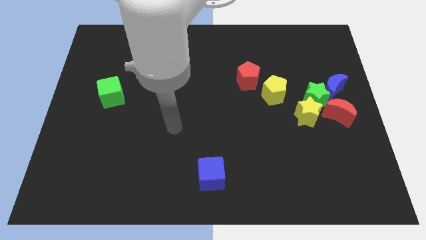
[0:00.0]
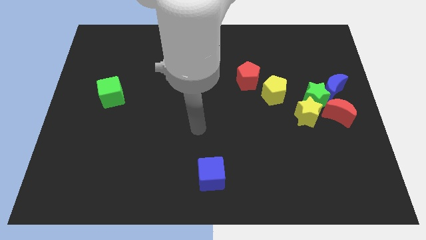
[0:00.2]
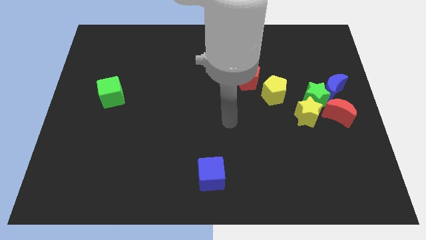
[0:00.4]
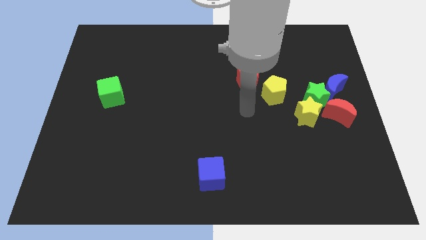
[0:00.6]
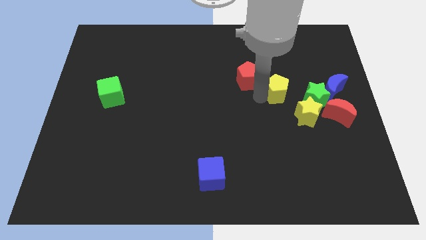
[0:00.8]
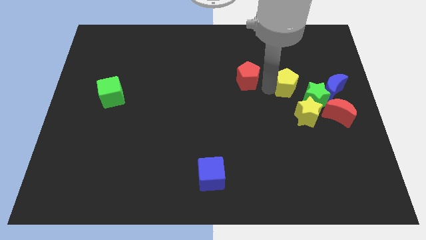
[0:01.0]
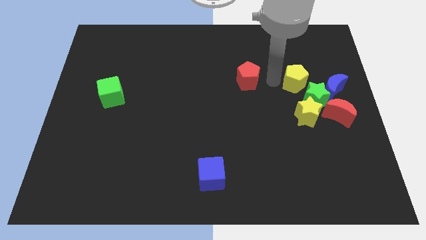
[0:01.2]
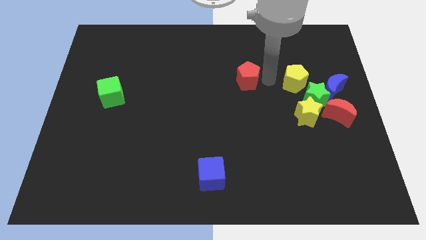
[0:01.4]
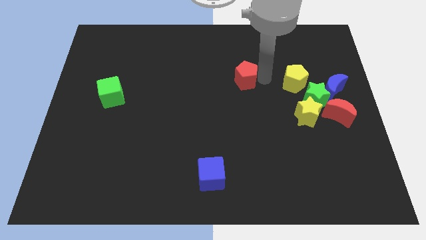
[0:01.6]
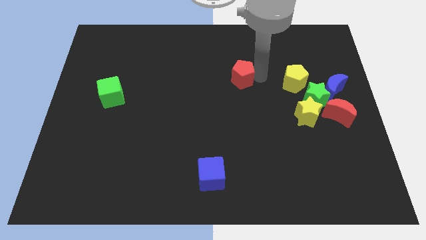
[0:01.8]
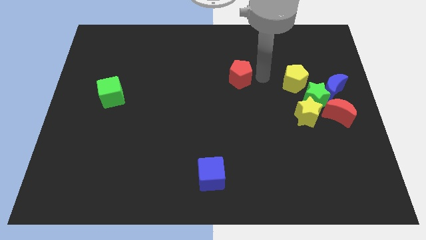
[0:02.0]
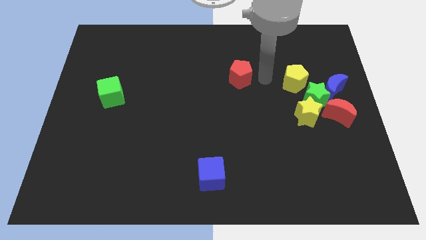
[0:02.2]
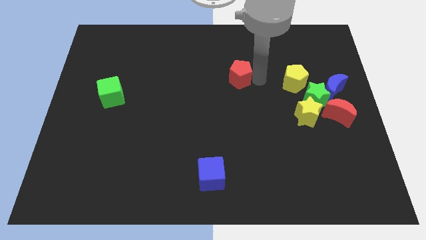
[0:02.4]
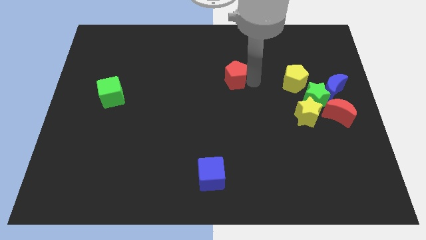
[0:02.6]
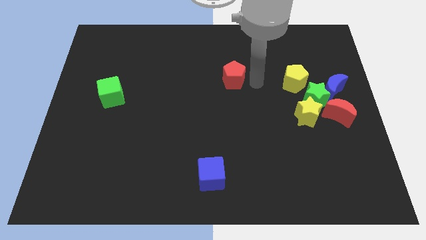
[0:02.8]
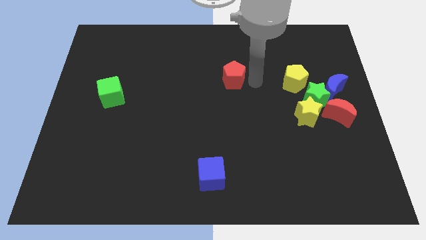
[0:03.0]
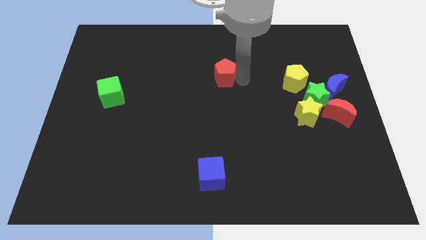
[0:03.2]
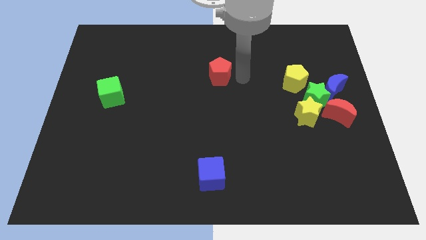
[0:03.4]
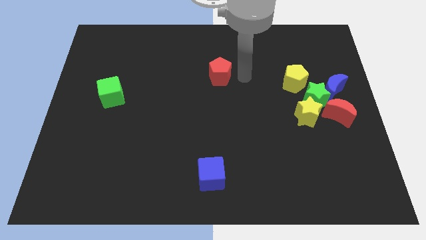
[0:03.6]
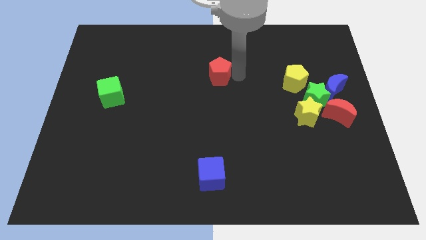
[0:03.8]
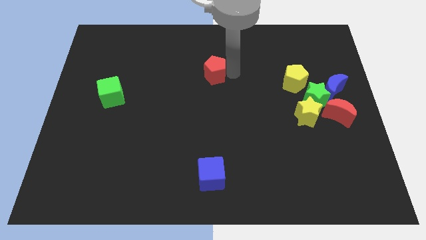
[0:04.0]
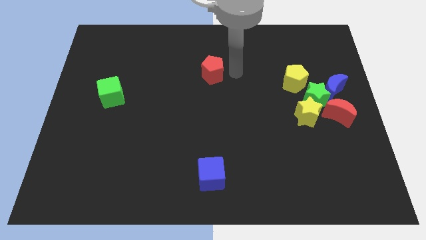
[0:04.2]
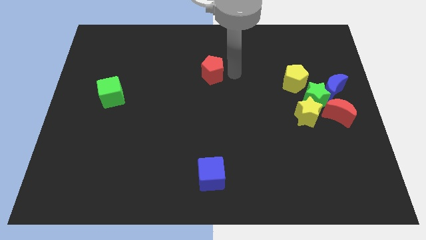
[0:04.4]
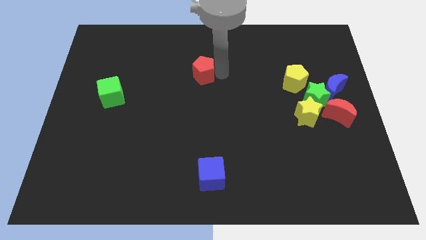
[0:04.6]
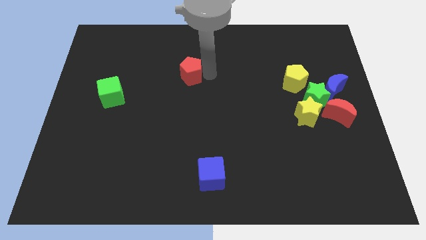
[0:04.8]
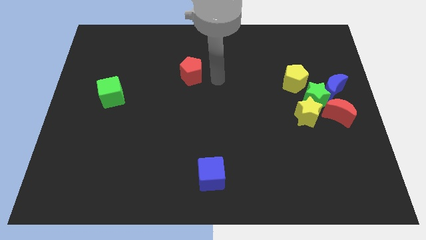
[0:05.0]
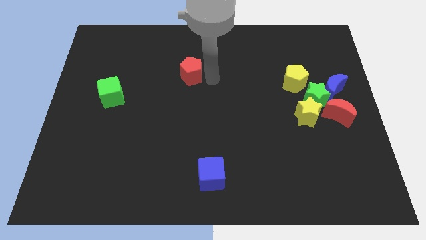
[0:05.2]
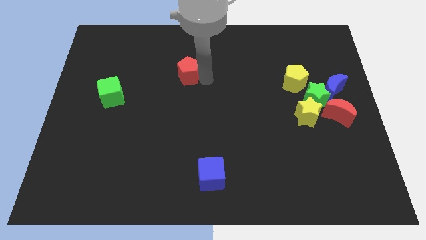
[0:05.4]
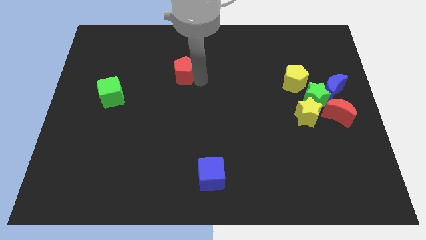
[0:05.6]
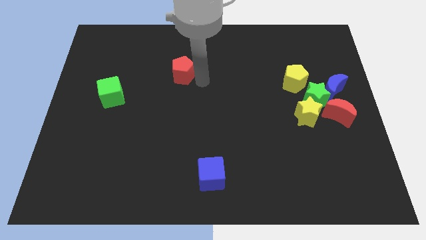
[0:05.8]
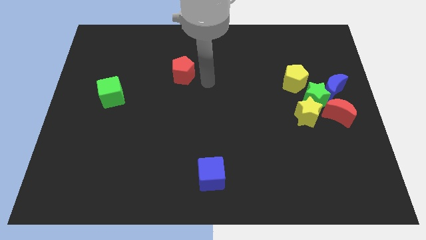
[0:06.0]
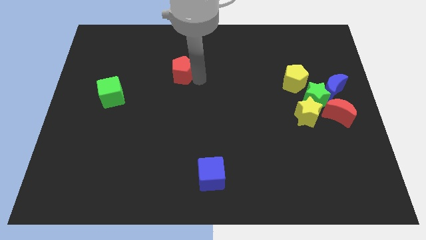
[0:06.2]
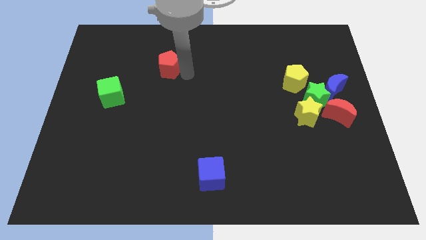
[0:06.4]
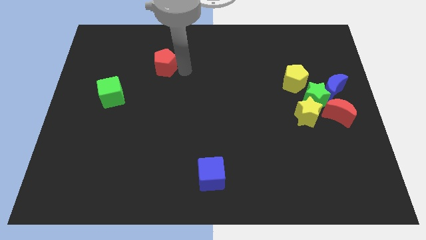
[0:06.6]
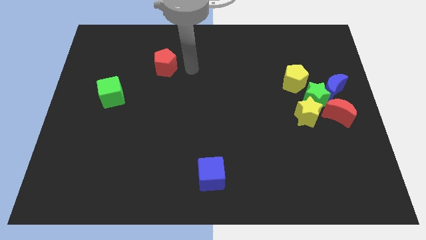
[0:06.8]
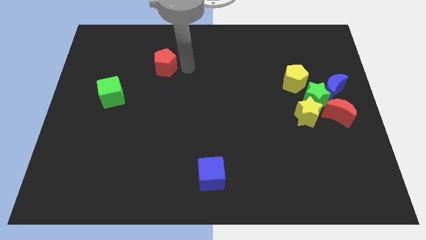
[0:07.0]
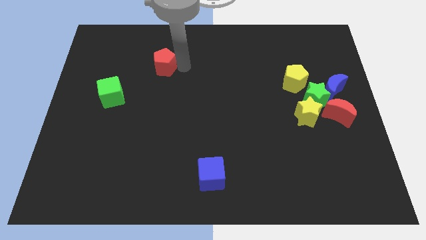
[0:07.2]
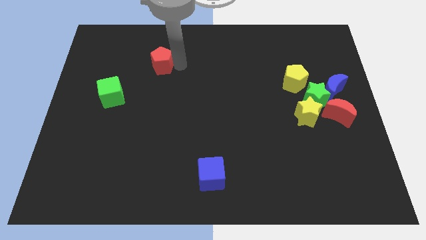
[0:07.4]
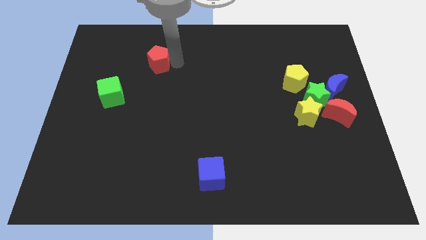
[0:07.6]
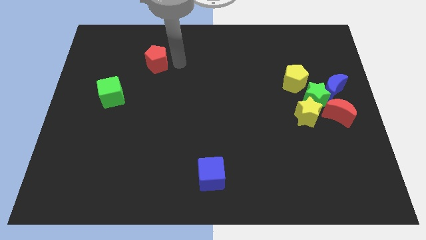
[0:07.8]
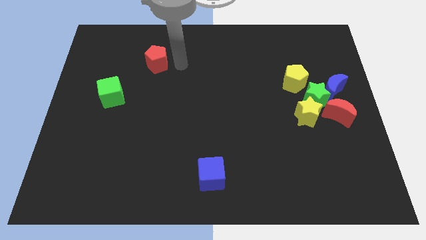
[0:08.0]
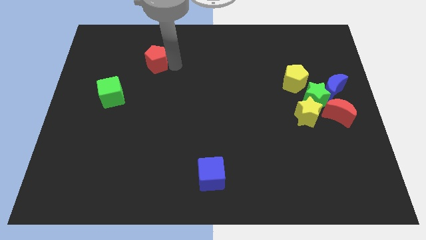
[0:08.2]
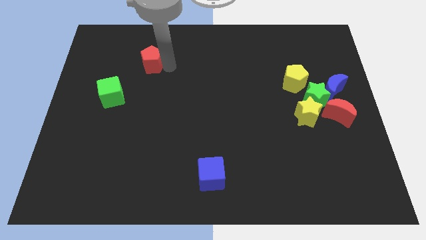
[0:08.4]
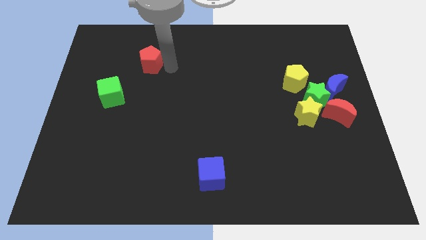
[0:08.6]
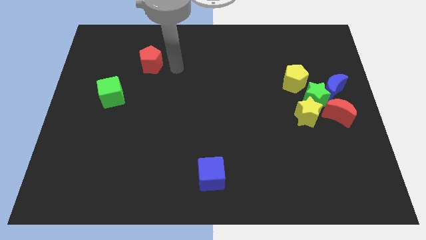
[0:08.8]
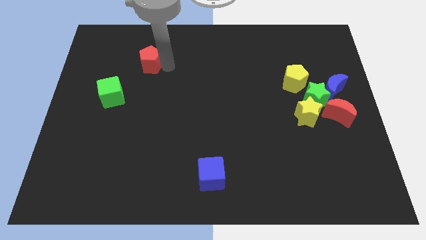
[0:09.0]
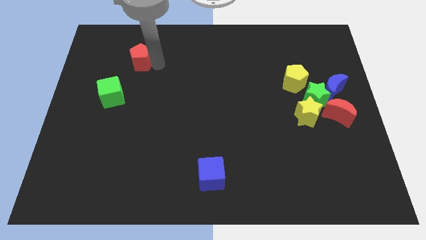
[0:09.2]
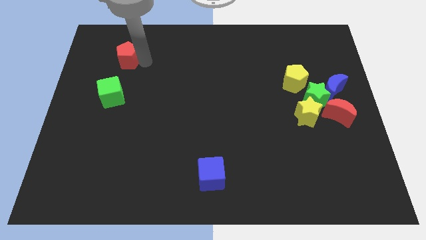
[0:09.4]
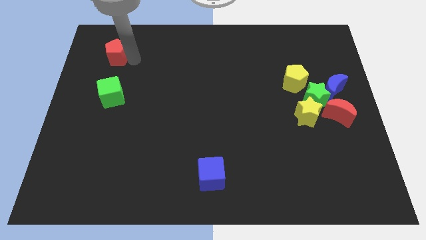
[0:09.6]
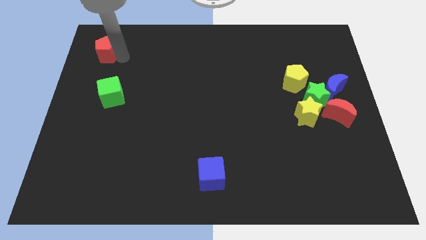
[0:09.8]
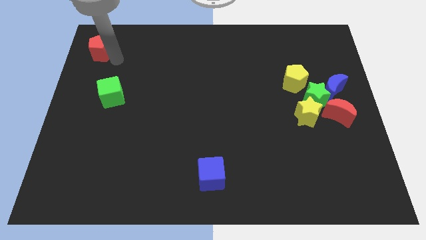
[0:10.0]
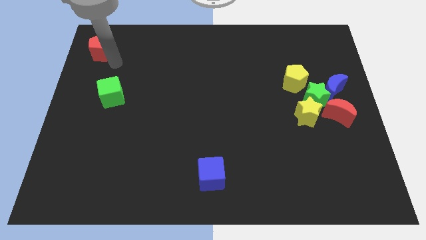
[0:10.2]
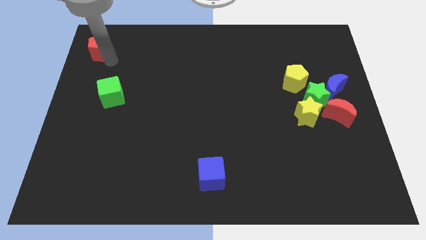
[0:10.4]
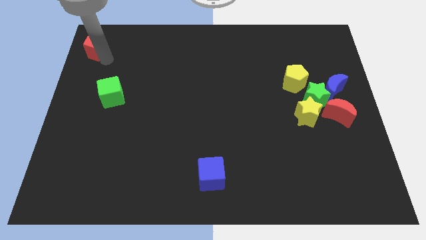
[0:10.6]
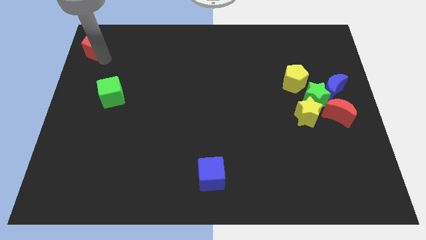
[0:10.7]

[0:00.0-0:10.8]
put the red pentagon to the top left corner

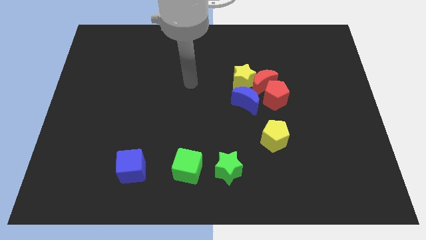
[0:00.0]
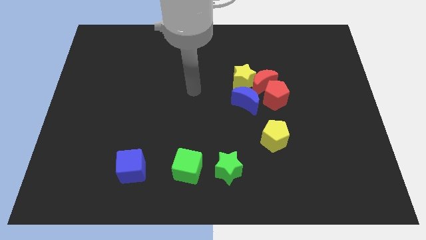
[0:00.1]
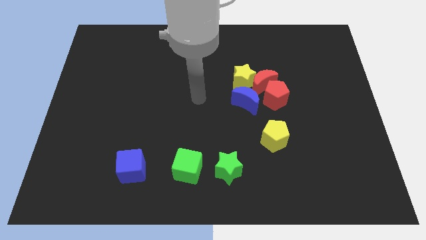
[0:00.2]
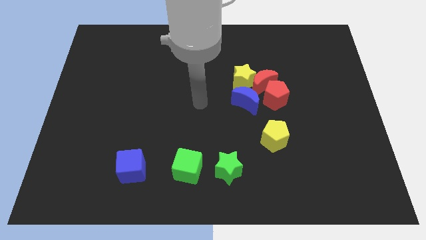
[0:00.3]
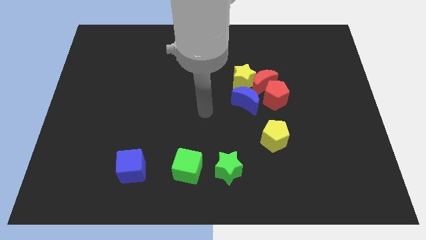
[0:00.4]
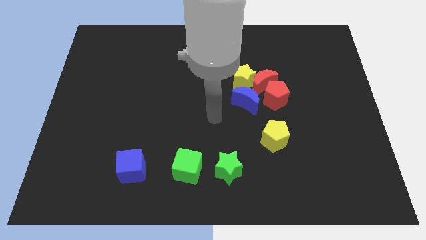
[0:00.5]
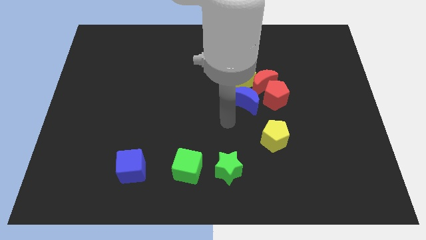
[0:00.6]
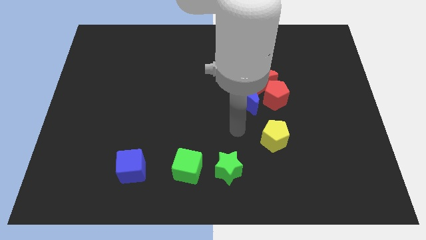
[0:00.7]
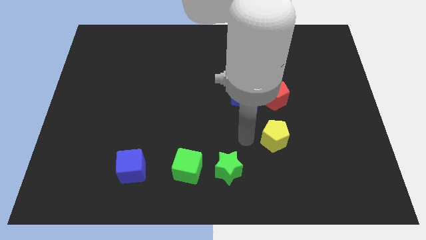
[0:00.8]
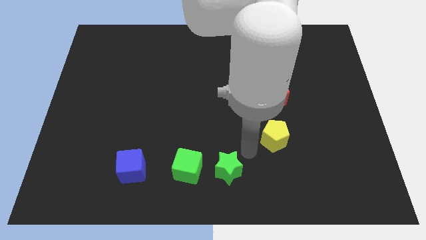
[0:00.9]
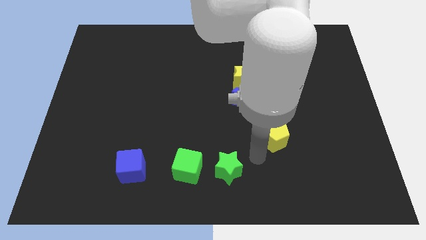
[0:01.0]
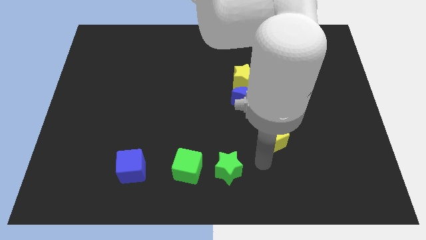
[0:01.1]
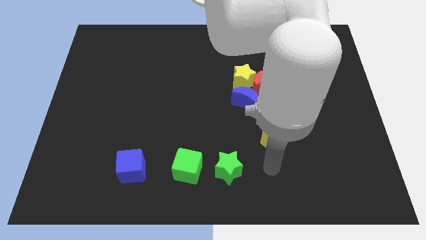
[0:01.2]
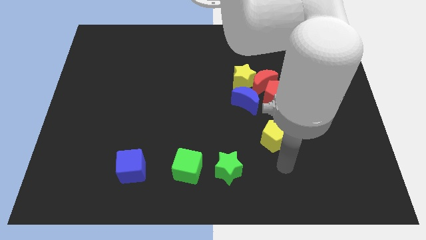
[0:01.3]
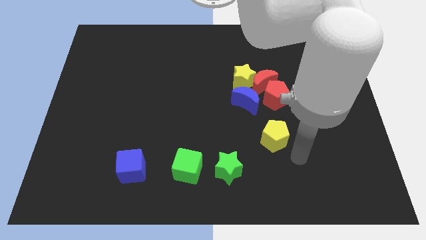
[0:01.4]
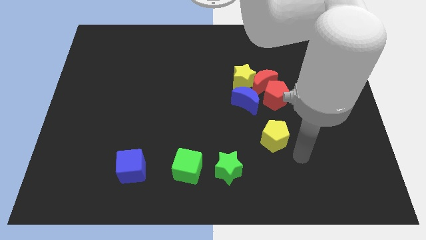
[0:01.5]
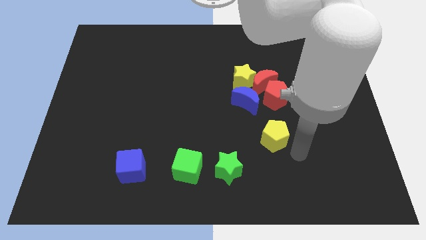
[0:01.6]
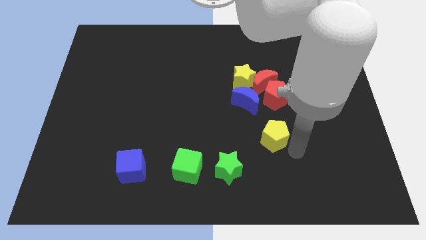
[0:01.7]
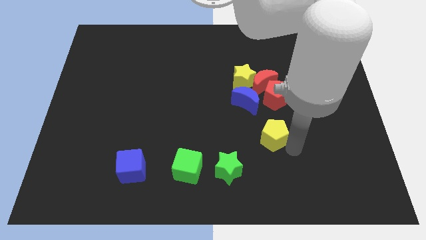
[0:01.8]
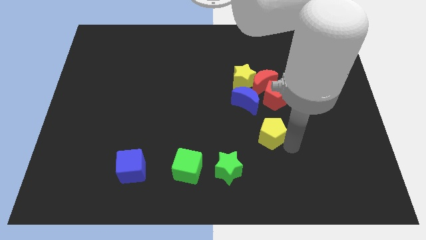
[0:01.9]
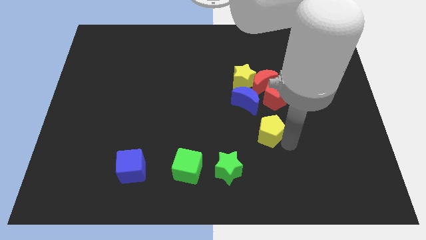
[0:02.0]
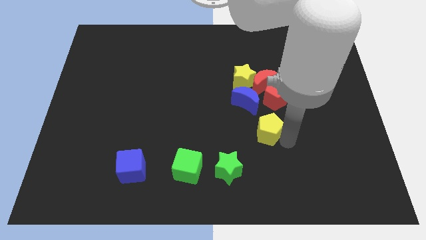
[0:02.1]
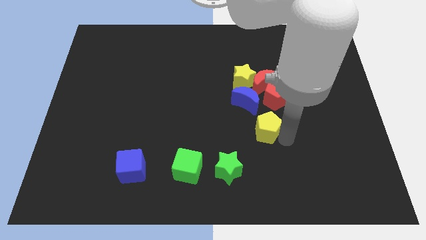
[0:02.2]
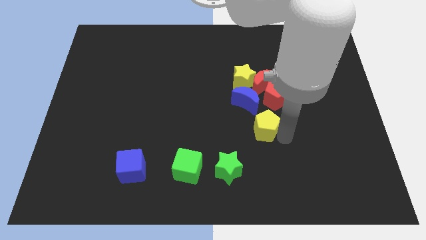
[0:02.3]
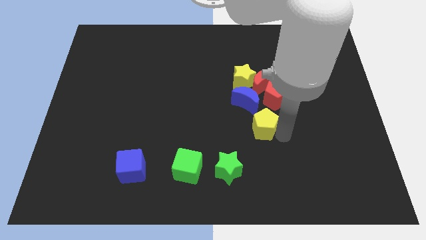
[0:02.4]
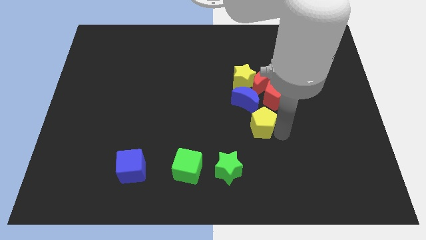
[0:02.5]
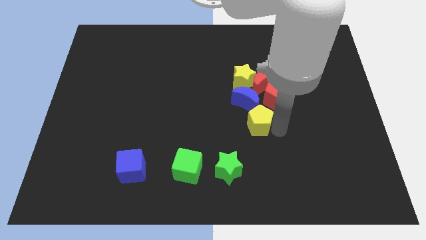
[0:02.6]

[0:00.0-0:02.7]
push the yellow pentagon to the middle of the board
